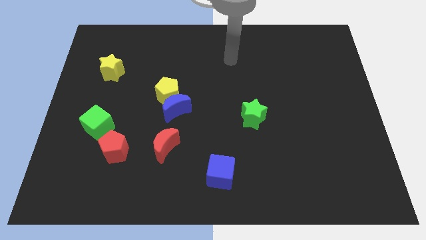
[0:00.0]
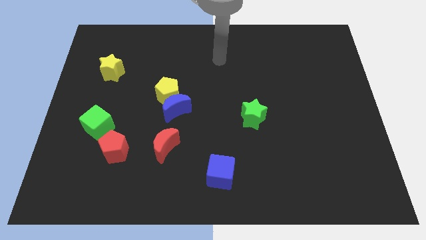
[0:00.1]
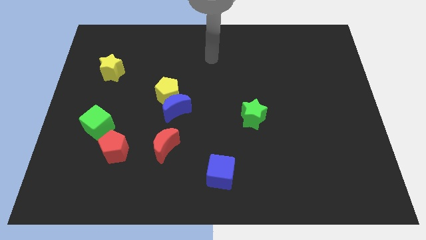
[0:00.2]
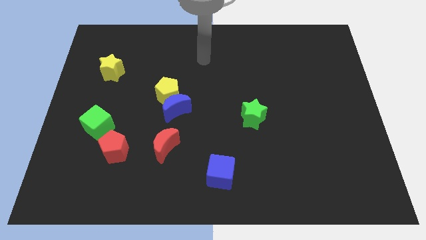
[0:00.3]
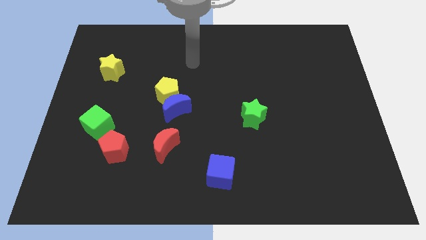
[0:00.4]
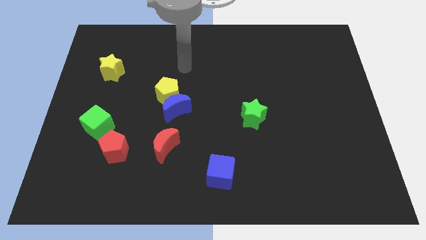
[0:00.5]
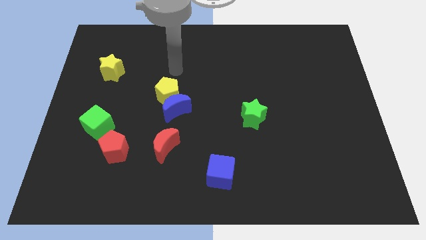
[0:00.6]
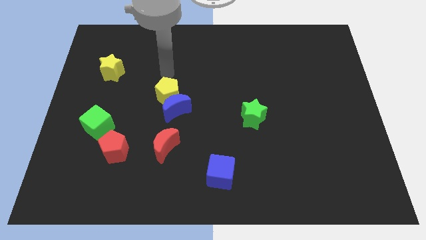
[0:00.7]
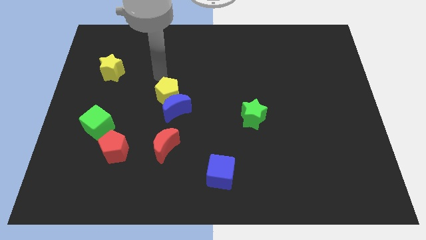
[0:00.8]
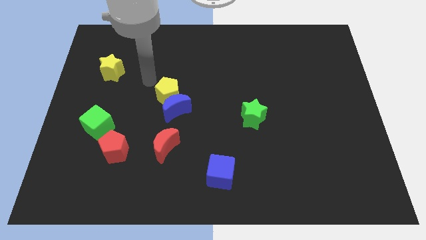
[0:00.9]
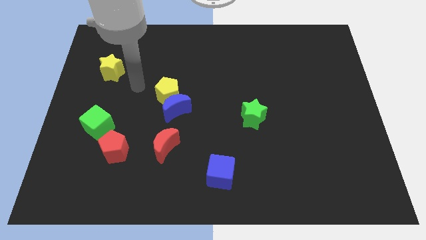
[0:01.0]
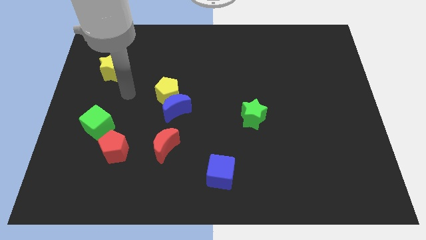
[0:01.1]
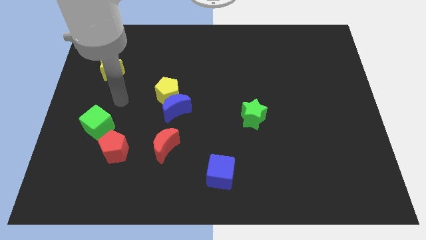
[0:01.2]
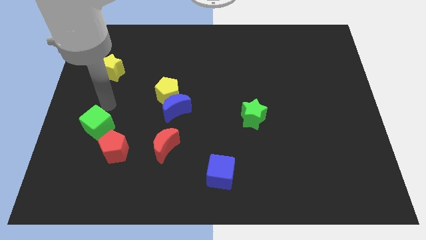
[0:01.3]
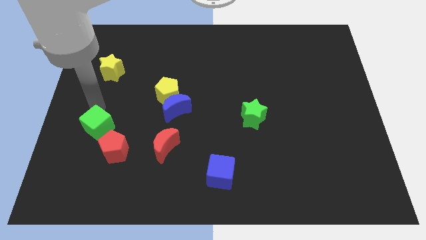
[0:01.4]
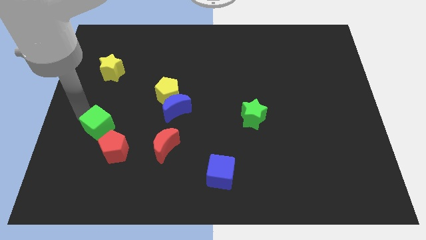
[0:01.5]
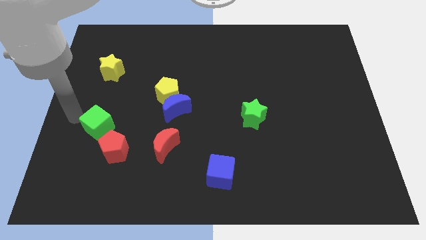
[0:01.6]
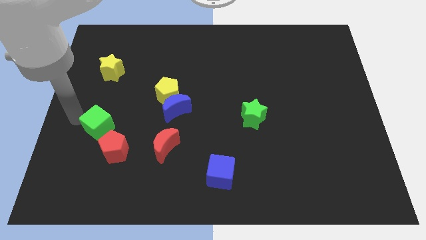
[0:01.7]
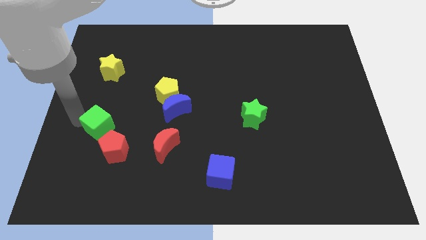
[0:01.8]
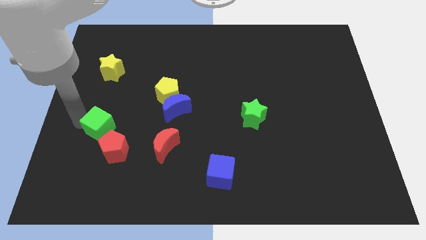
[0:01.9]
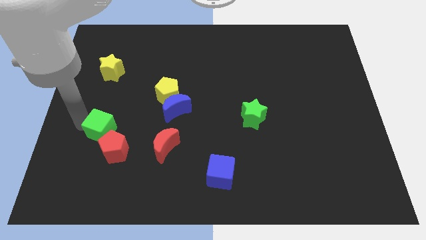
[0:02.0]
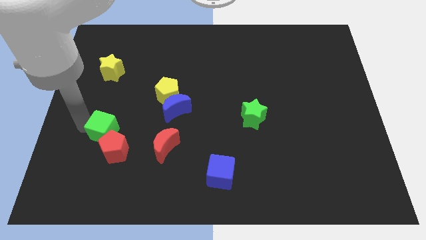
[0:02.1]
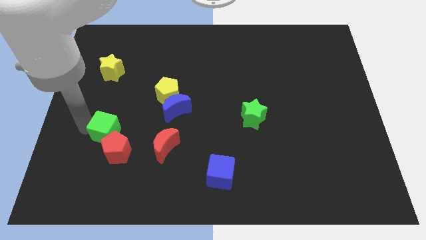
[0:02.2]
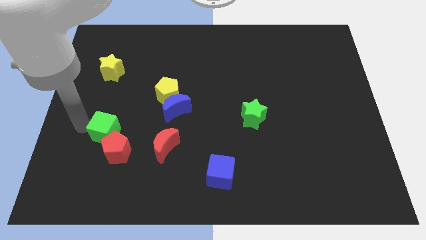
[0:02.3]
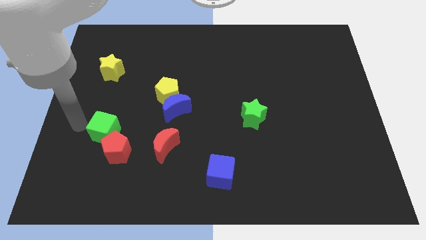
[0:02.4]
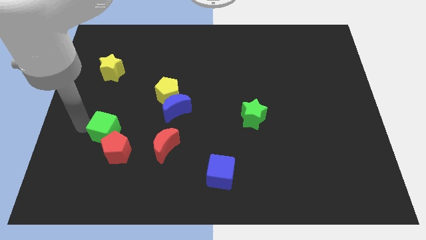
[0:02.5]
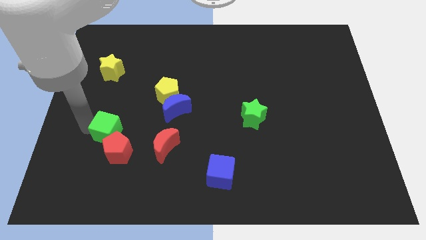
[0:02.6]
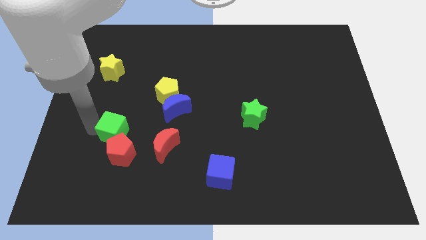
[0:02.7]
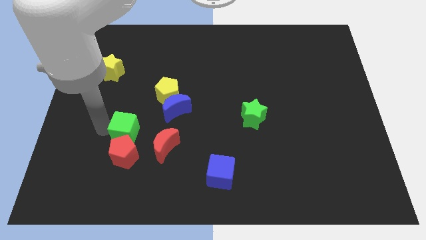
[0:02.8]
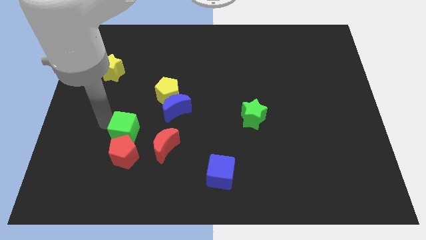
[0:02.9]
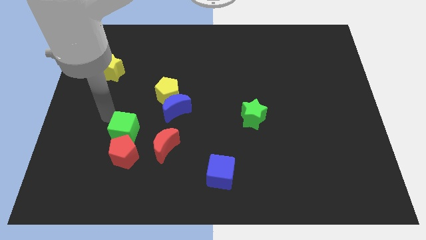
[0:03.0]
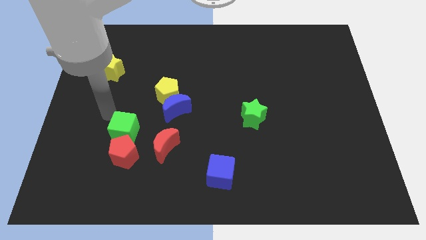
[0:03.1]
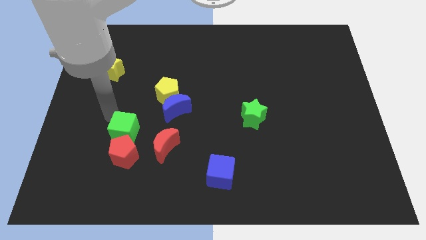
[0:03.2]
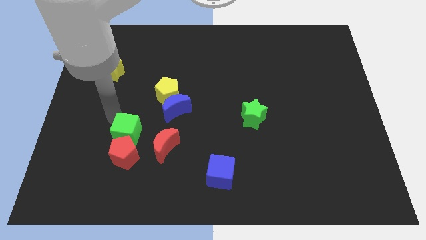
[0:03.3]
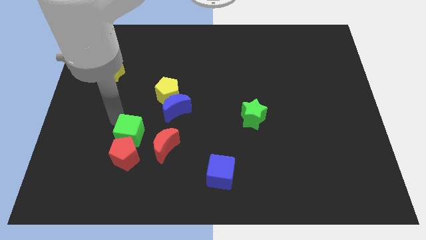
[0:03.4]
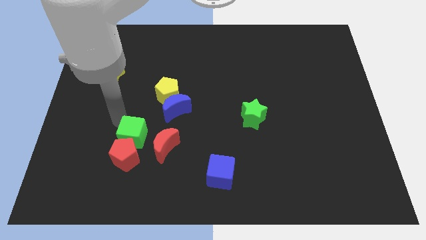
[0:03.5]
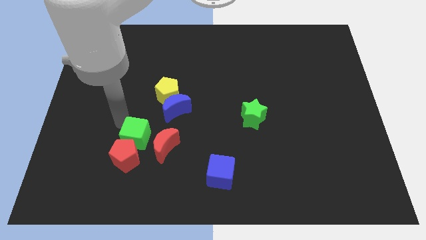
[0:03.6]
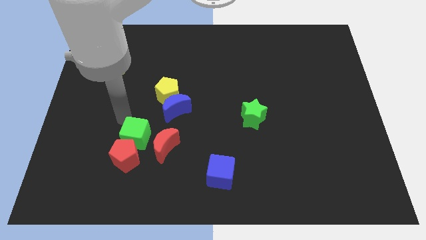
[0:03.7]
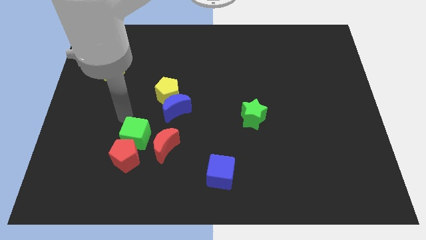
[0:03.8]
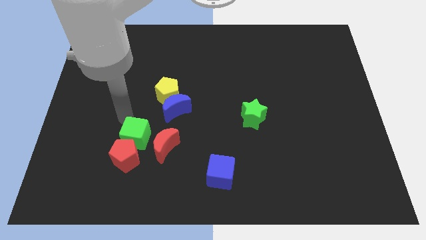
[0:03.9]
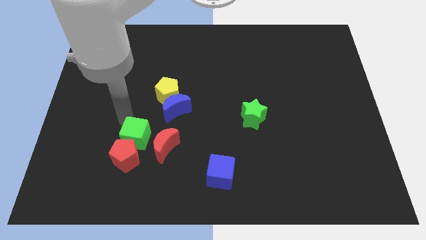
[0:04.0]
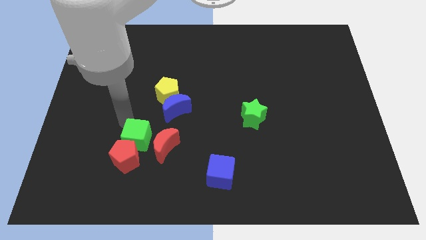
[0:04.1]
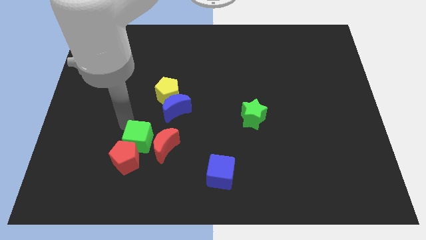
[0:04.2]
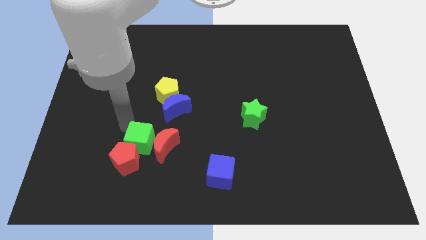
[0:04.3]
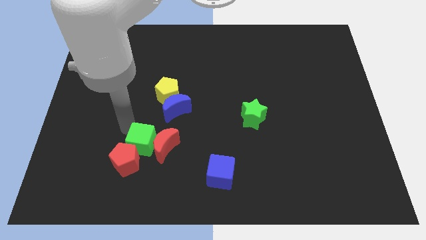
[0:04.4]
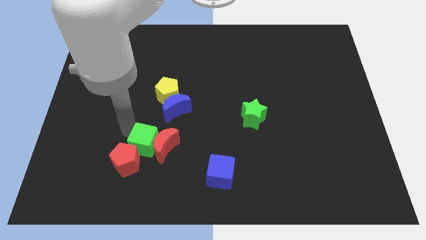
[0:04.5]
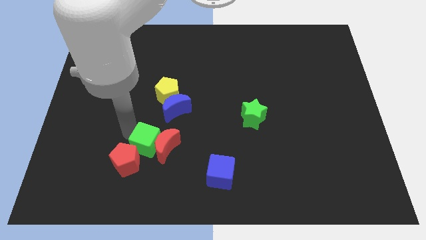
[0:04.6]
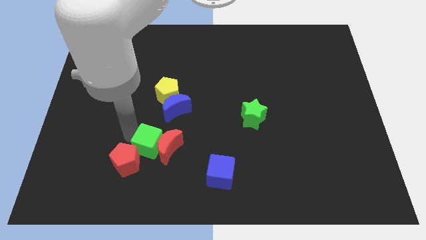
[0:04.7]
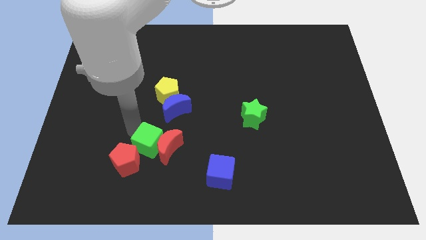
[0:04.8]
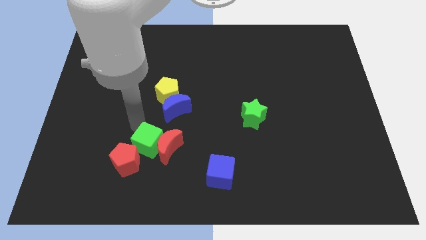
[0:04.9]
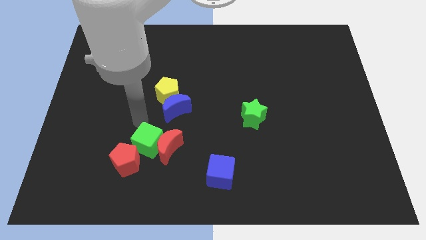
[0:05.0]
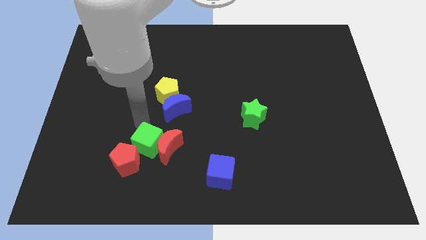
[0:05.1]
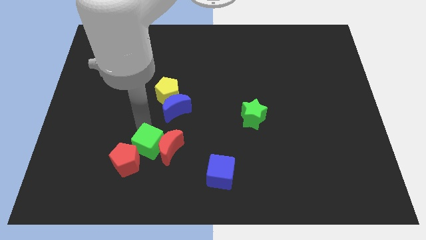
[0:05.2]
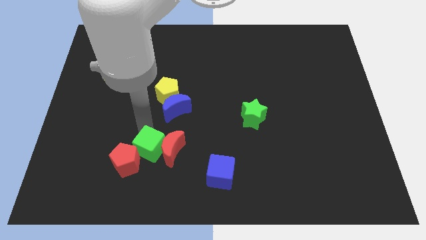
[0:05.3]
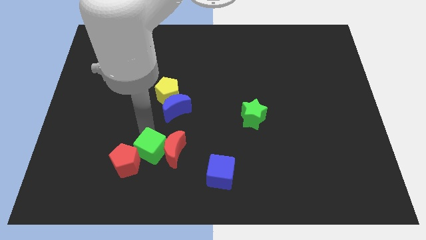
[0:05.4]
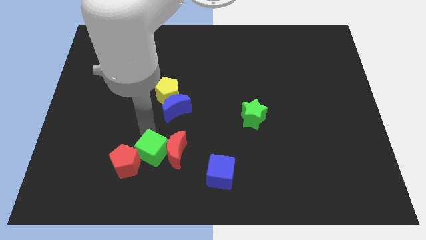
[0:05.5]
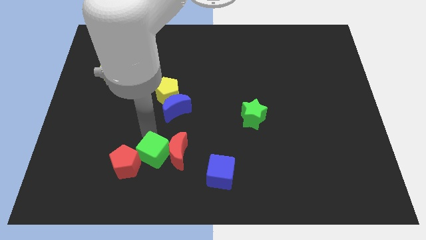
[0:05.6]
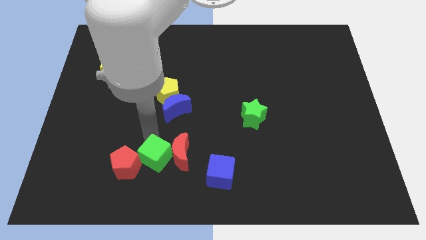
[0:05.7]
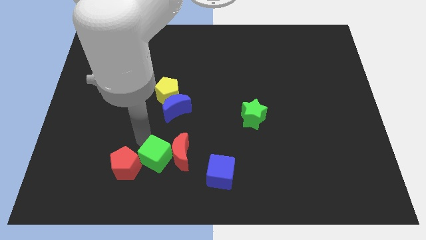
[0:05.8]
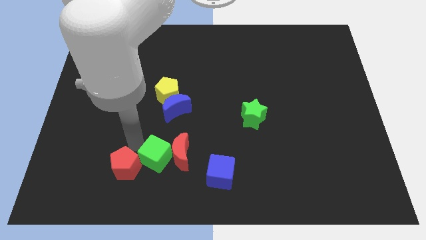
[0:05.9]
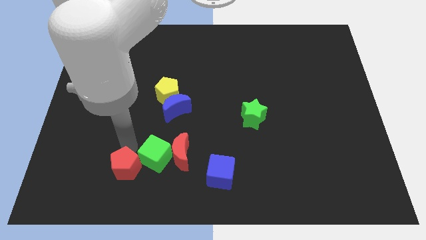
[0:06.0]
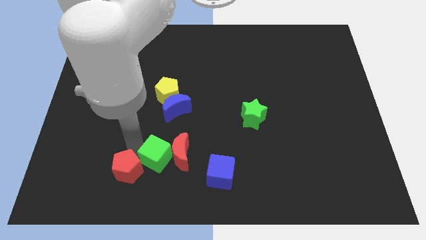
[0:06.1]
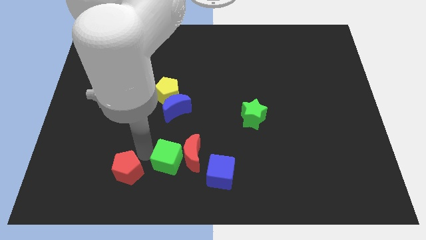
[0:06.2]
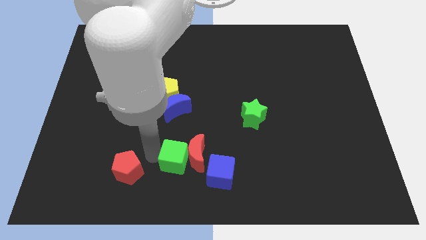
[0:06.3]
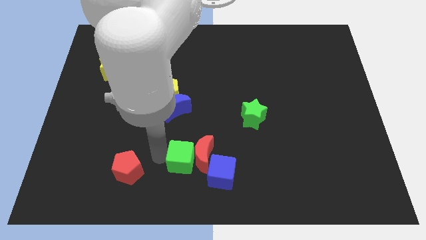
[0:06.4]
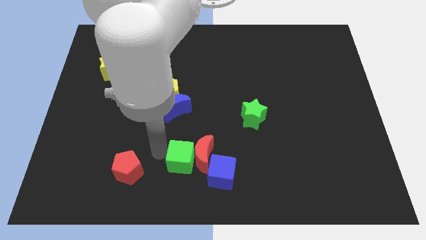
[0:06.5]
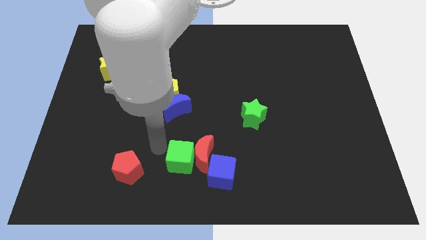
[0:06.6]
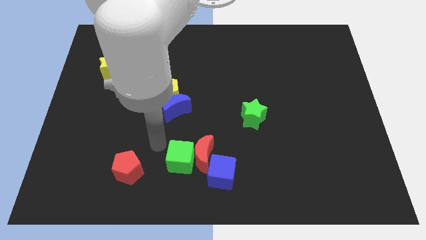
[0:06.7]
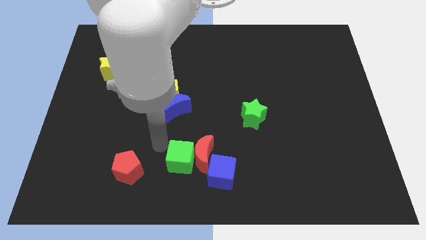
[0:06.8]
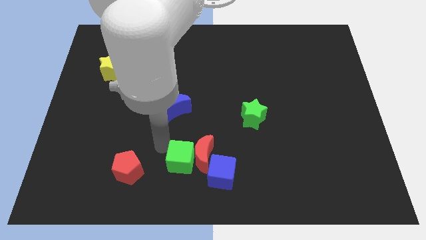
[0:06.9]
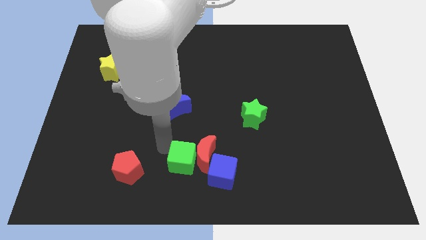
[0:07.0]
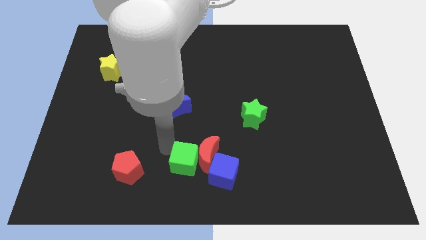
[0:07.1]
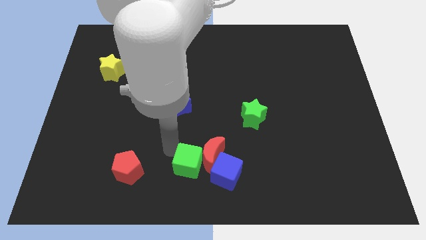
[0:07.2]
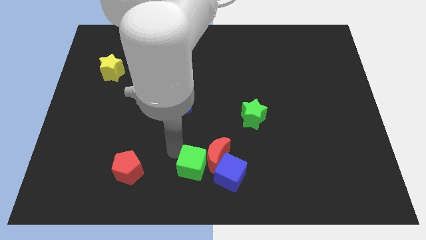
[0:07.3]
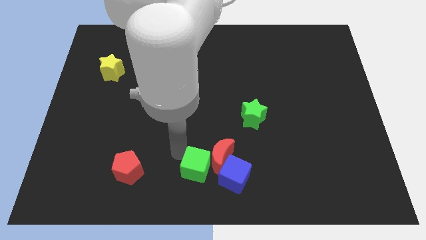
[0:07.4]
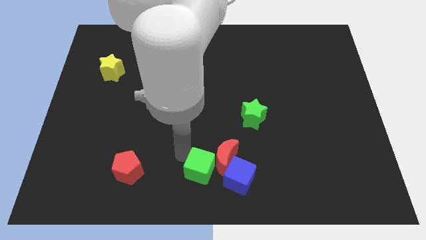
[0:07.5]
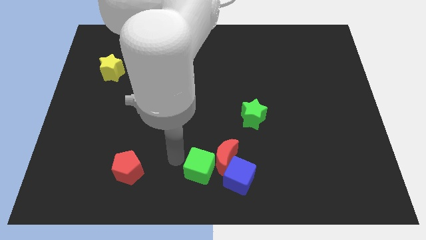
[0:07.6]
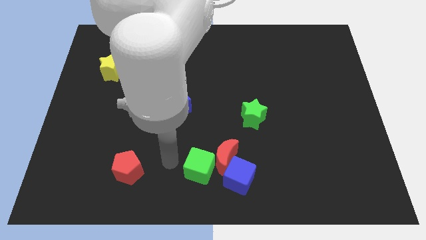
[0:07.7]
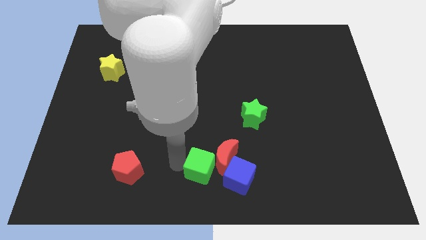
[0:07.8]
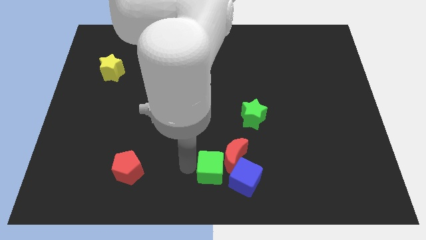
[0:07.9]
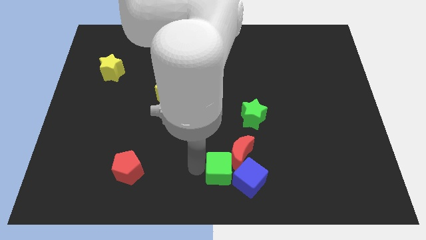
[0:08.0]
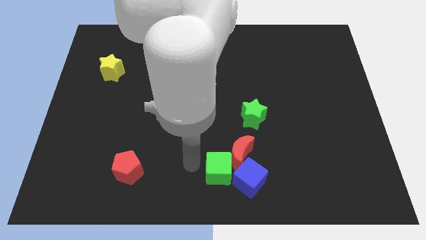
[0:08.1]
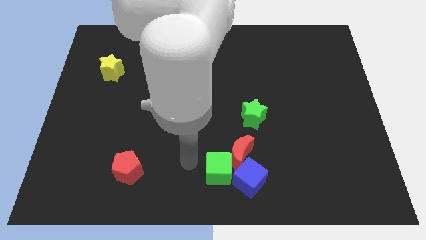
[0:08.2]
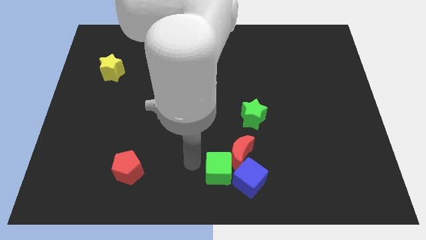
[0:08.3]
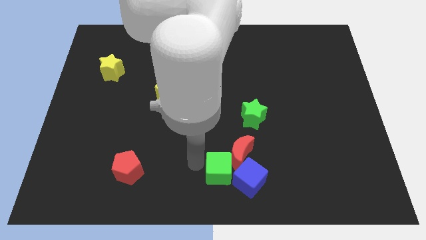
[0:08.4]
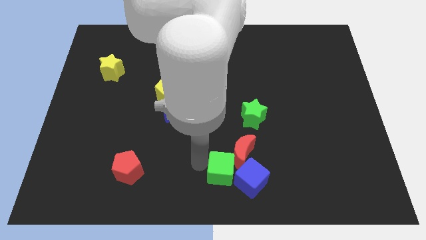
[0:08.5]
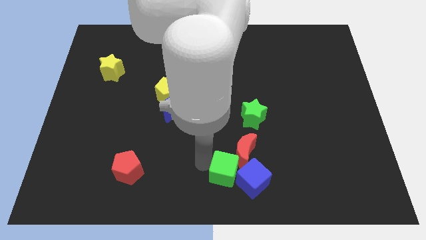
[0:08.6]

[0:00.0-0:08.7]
put the green cube to the blue cube
